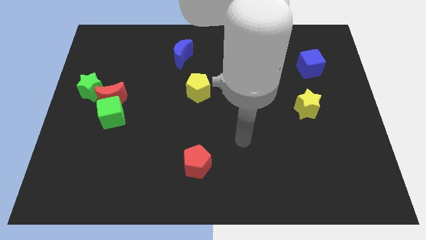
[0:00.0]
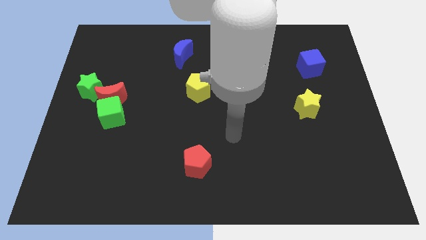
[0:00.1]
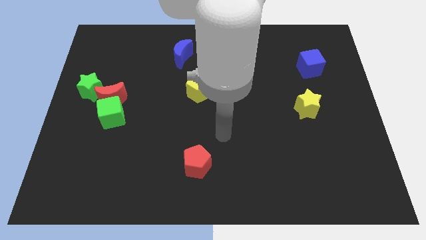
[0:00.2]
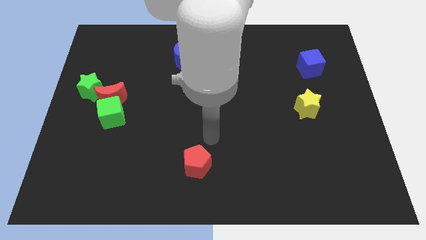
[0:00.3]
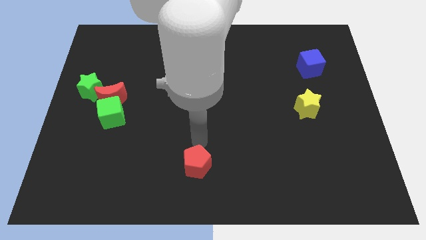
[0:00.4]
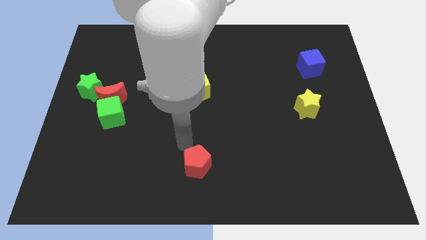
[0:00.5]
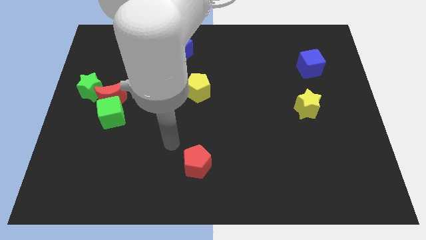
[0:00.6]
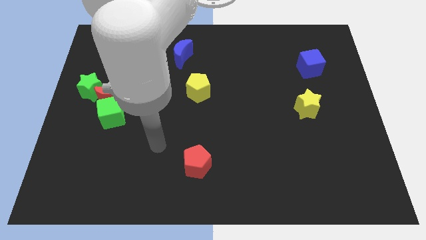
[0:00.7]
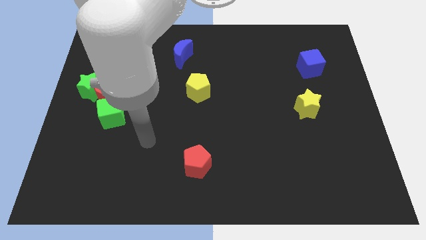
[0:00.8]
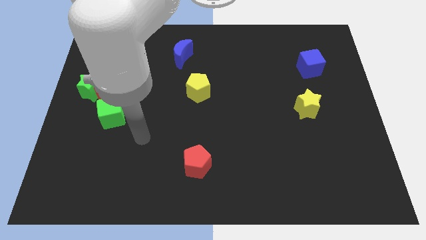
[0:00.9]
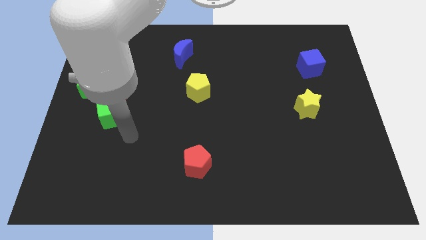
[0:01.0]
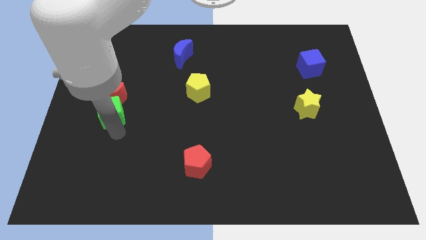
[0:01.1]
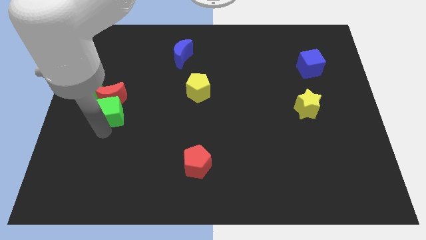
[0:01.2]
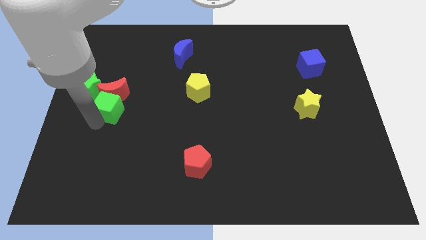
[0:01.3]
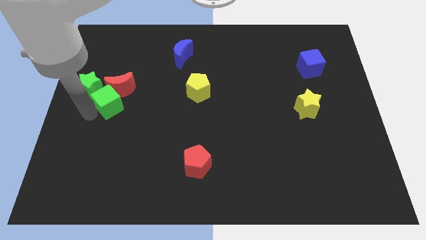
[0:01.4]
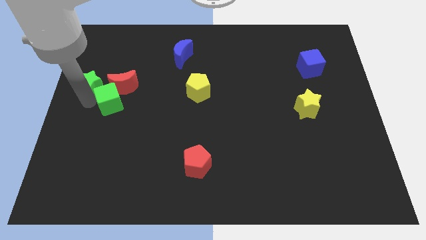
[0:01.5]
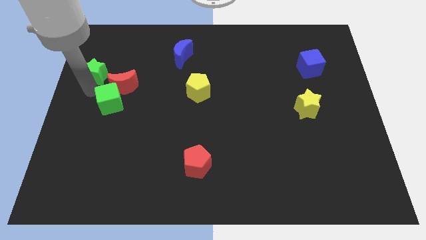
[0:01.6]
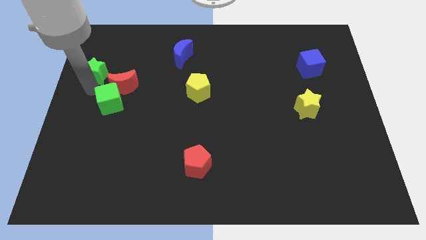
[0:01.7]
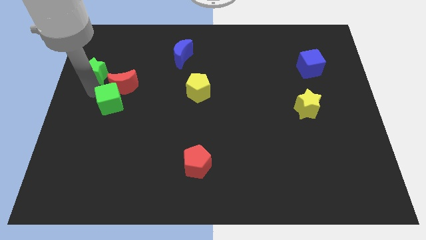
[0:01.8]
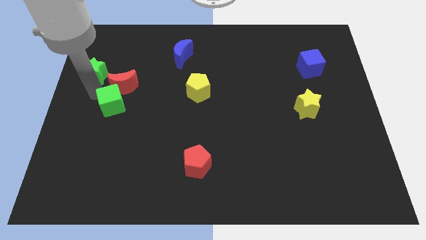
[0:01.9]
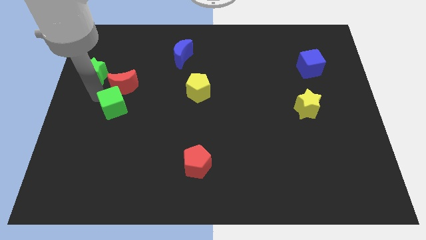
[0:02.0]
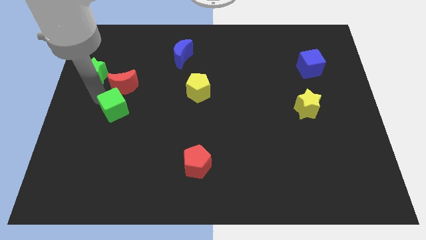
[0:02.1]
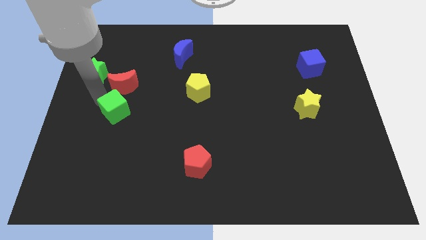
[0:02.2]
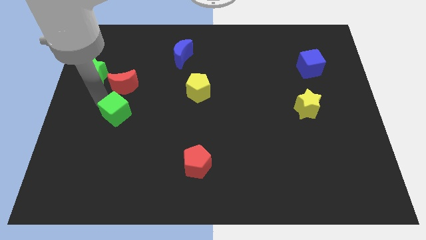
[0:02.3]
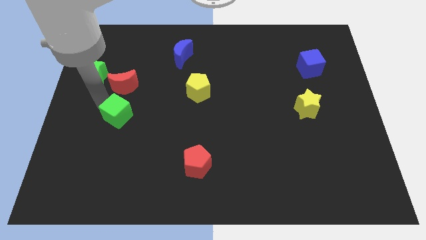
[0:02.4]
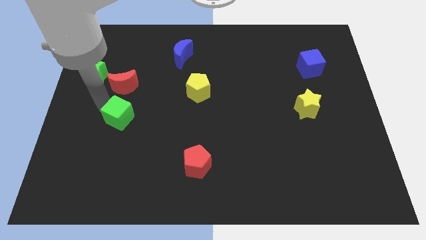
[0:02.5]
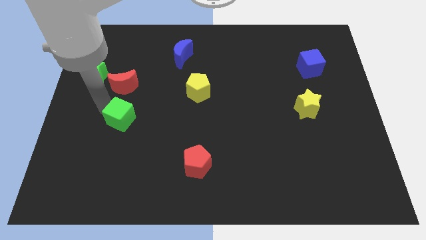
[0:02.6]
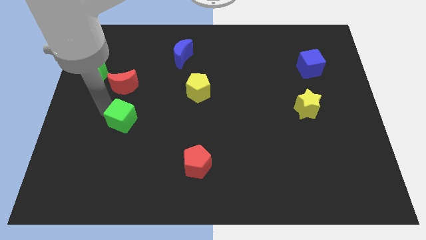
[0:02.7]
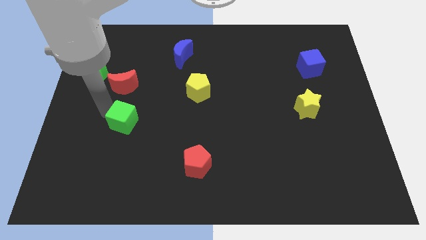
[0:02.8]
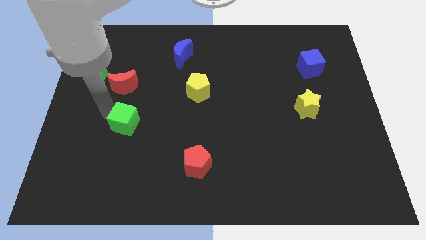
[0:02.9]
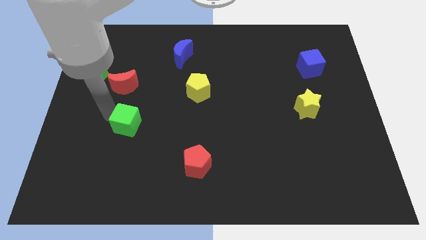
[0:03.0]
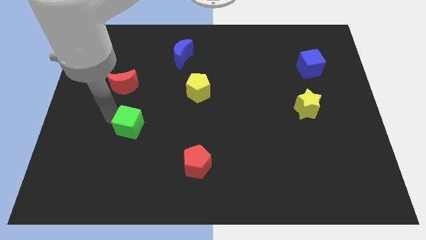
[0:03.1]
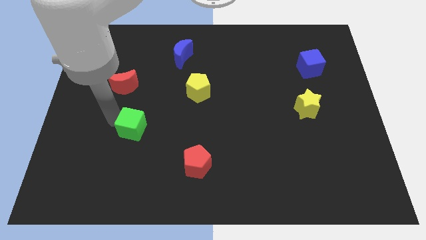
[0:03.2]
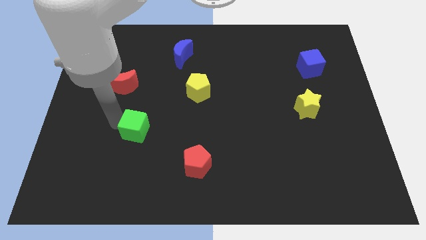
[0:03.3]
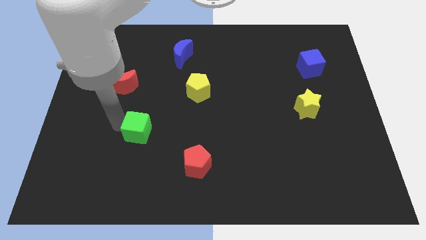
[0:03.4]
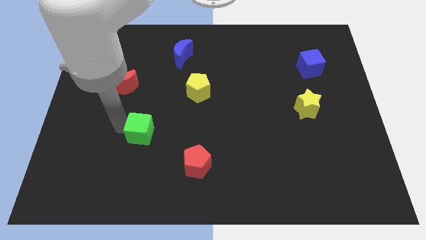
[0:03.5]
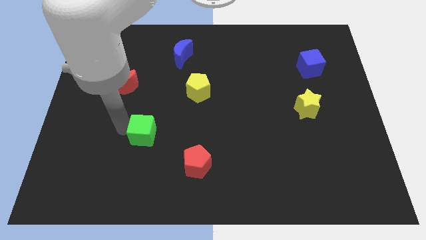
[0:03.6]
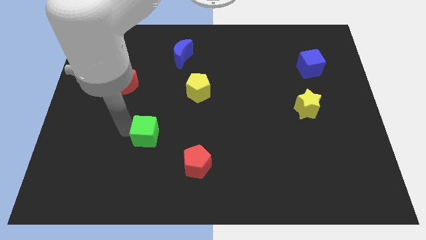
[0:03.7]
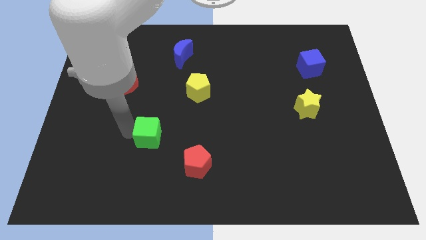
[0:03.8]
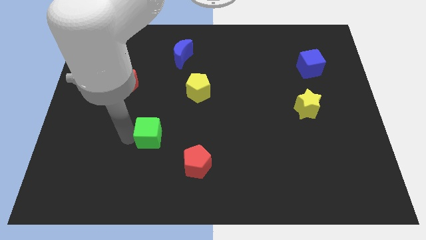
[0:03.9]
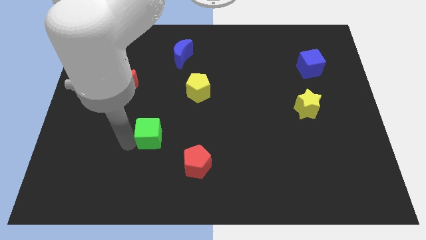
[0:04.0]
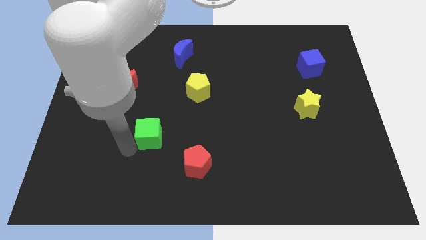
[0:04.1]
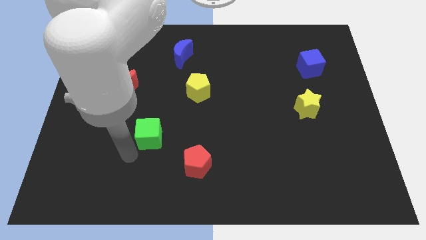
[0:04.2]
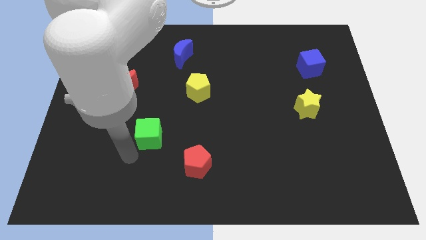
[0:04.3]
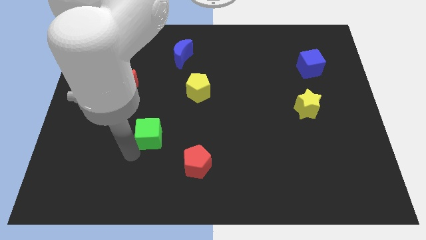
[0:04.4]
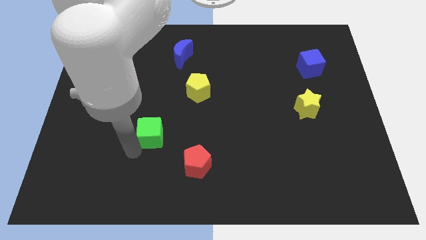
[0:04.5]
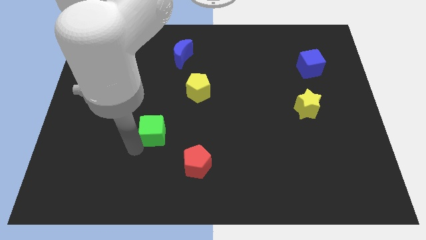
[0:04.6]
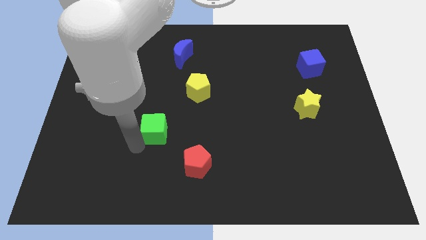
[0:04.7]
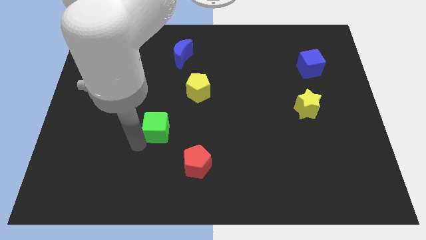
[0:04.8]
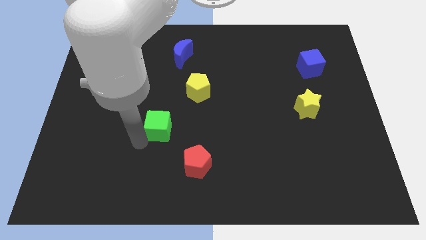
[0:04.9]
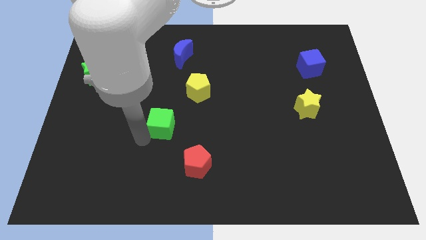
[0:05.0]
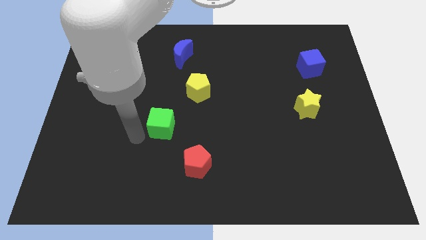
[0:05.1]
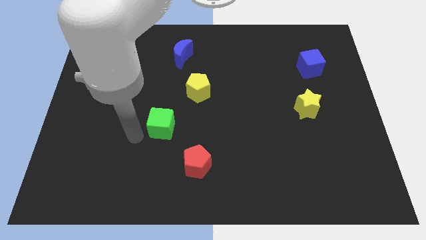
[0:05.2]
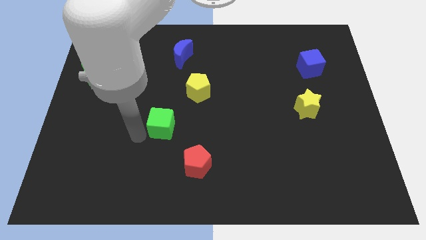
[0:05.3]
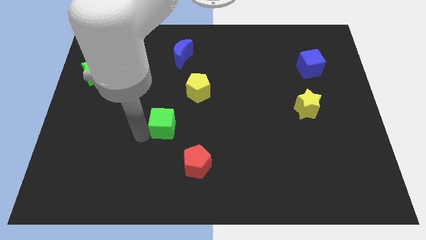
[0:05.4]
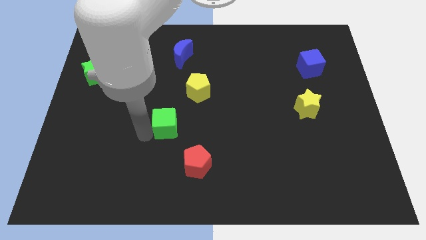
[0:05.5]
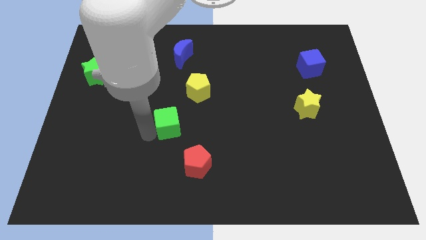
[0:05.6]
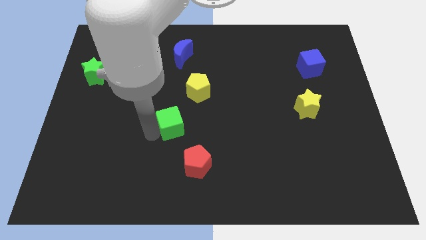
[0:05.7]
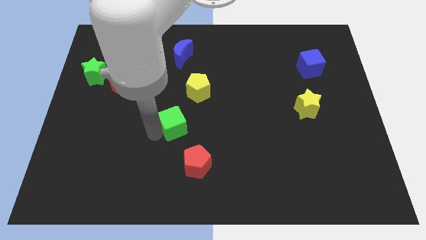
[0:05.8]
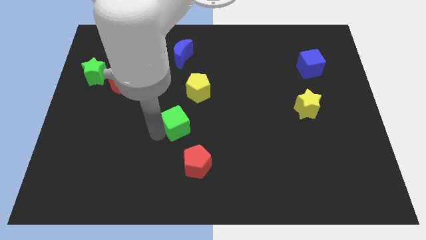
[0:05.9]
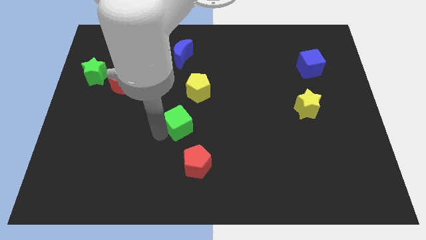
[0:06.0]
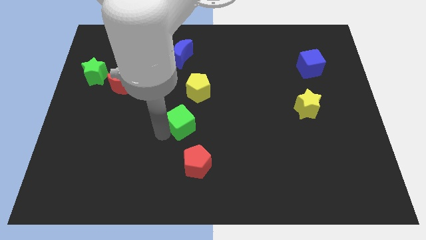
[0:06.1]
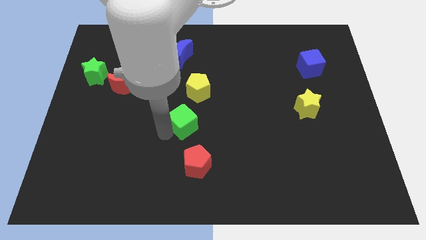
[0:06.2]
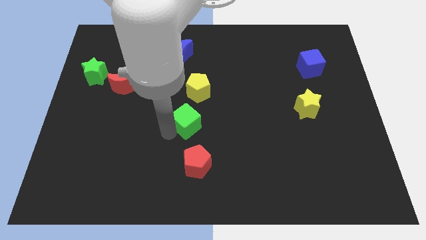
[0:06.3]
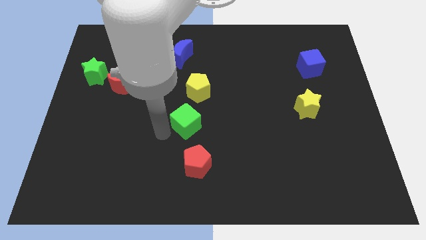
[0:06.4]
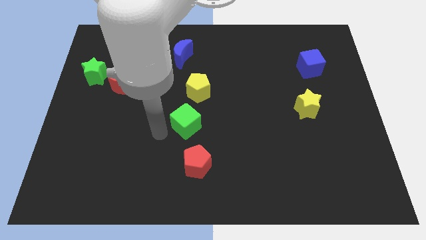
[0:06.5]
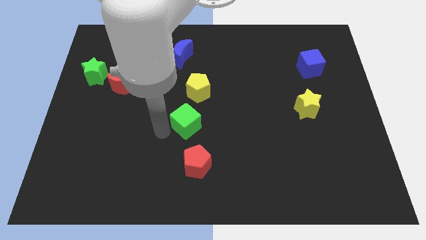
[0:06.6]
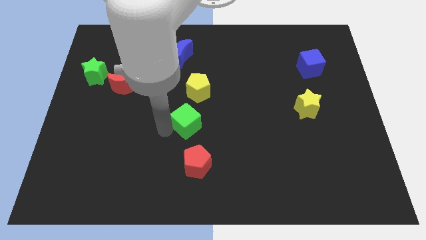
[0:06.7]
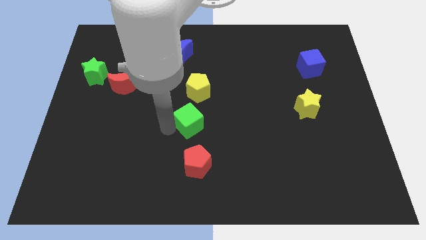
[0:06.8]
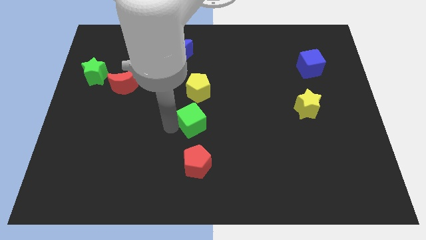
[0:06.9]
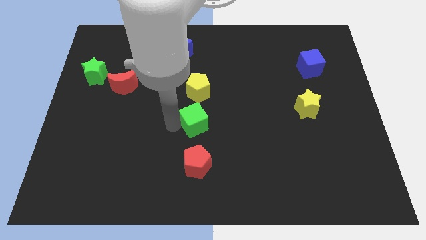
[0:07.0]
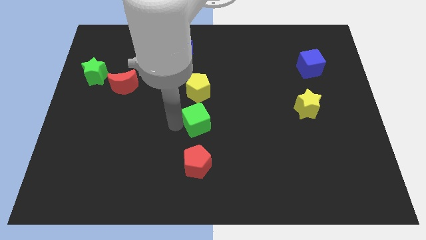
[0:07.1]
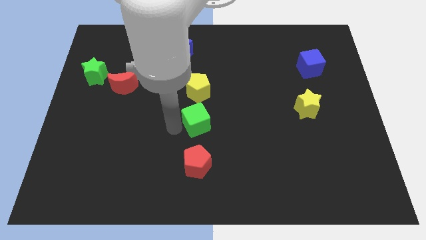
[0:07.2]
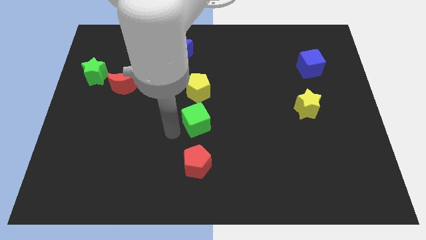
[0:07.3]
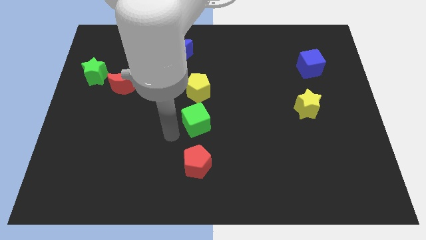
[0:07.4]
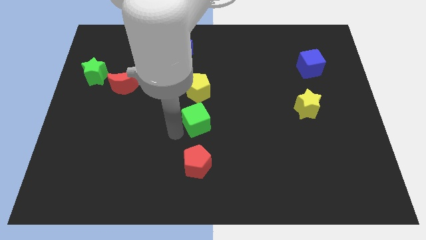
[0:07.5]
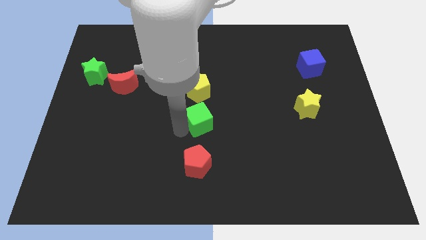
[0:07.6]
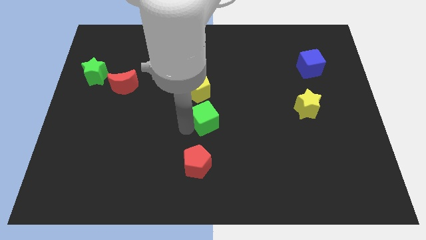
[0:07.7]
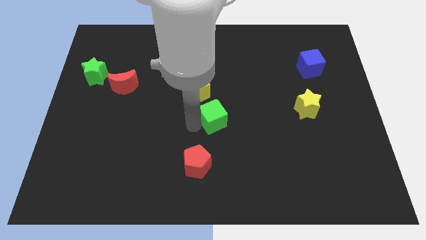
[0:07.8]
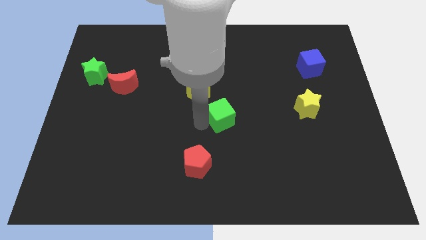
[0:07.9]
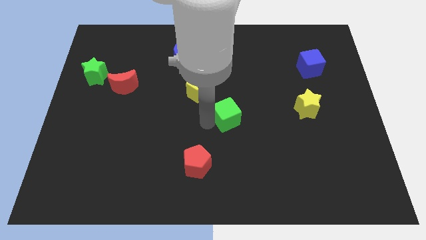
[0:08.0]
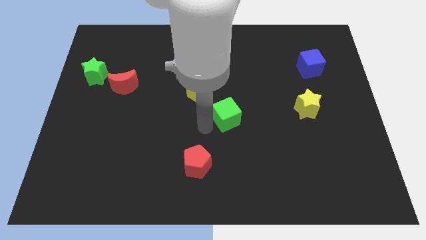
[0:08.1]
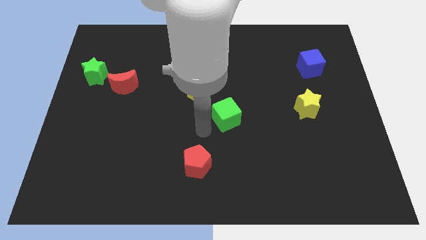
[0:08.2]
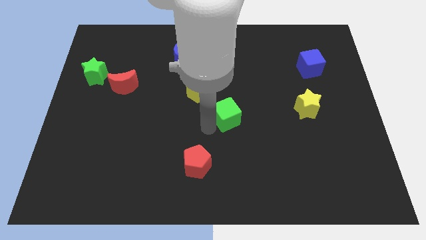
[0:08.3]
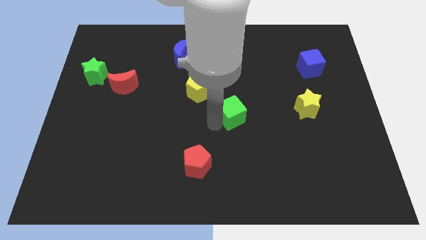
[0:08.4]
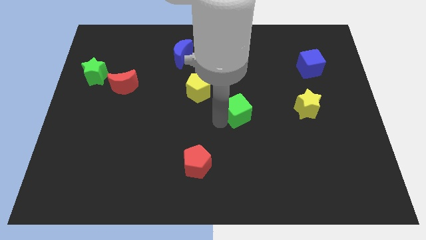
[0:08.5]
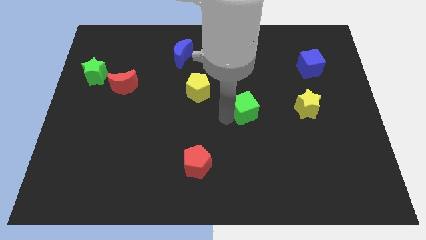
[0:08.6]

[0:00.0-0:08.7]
move the green cube just left of the yellow star
